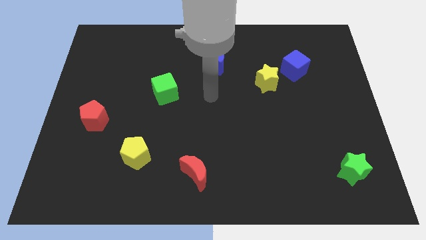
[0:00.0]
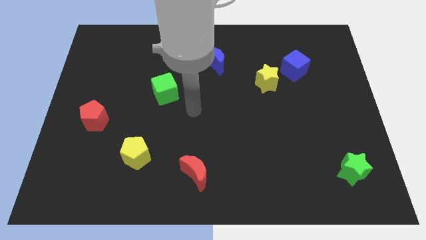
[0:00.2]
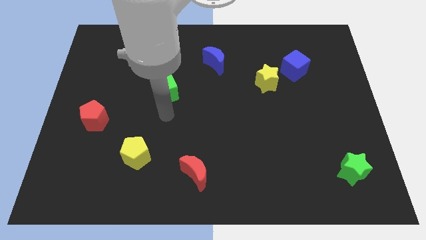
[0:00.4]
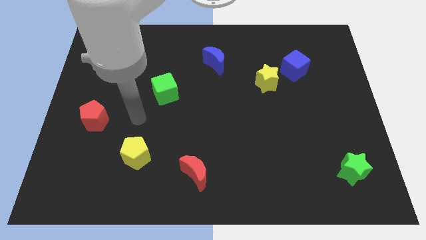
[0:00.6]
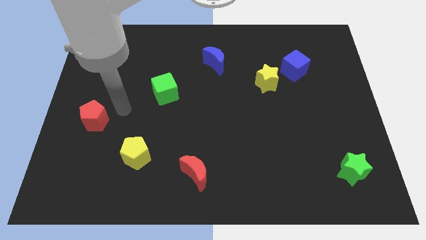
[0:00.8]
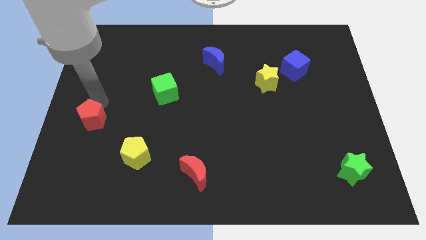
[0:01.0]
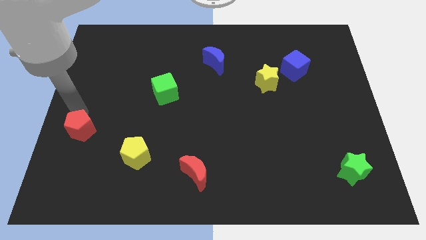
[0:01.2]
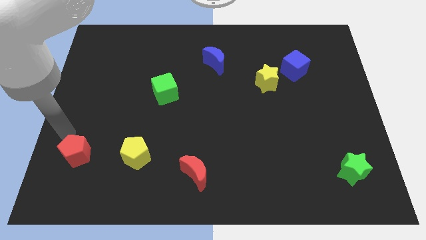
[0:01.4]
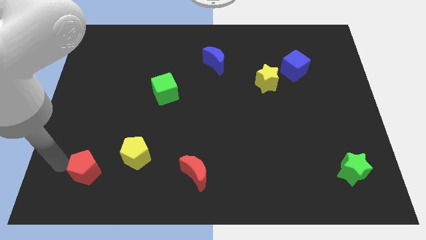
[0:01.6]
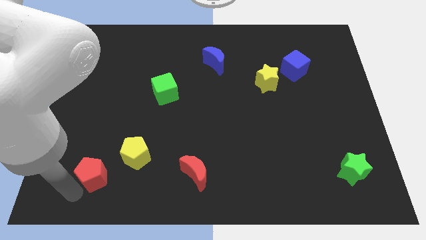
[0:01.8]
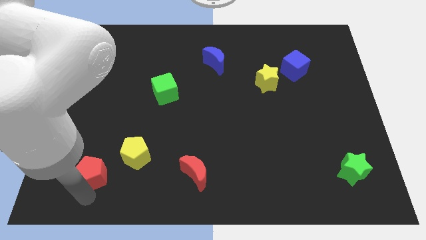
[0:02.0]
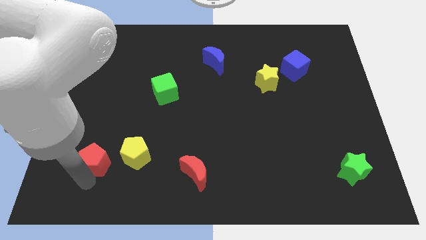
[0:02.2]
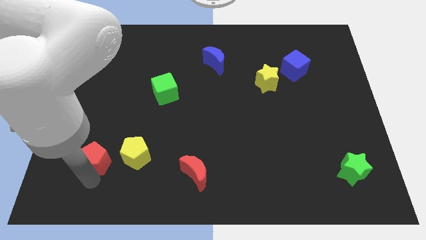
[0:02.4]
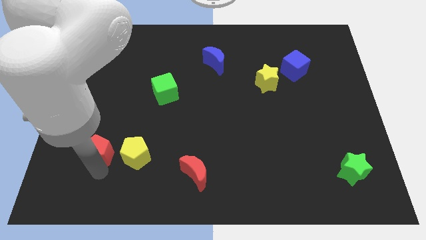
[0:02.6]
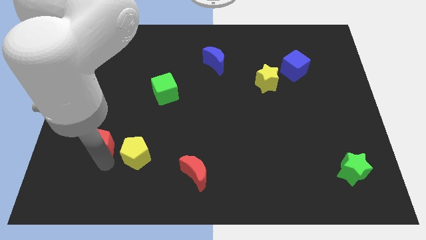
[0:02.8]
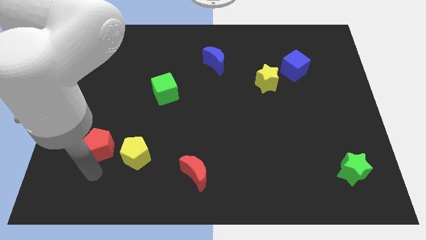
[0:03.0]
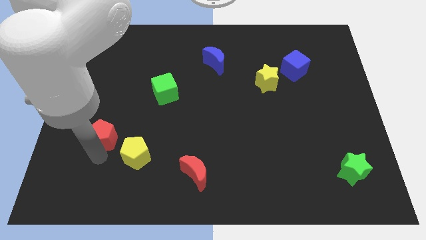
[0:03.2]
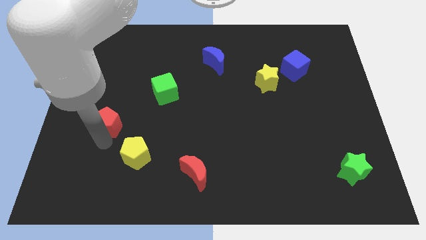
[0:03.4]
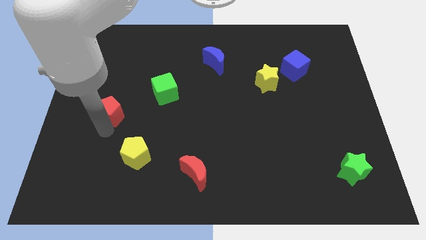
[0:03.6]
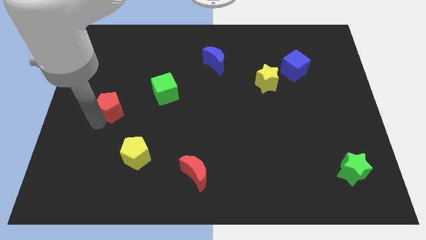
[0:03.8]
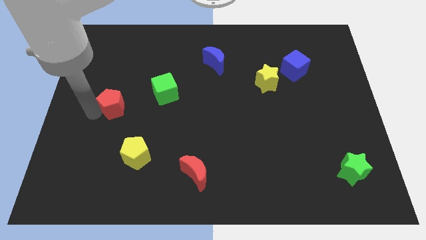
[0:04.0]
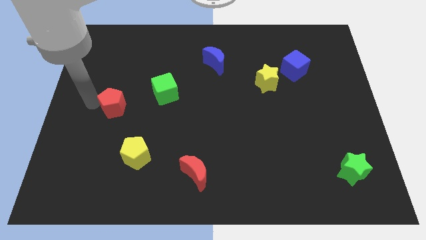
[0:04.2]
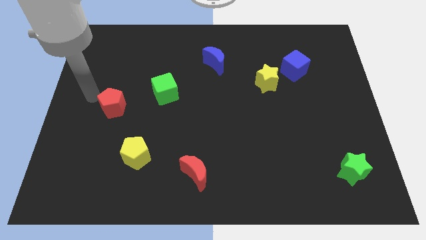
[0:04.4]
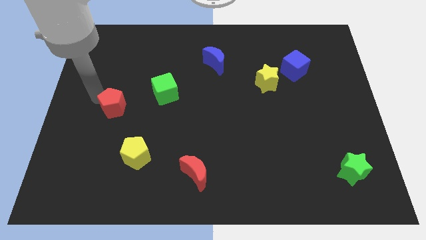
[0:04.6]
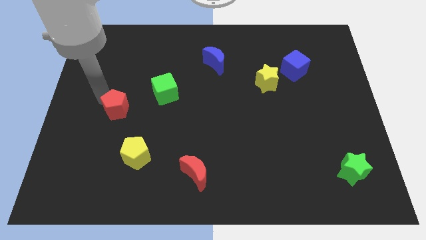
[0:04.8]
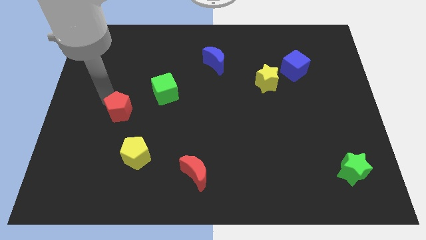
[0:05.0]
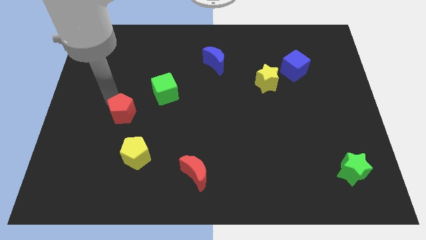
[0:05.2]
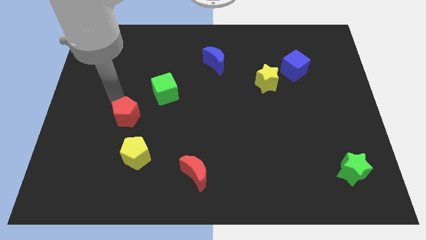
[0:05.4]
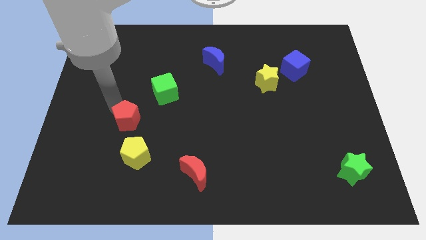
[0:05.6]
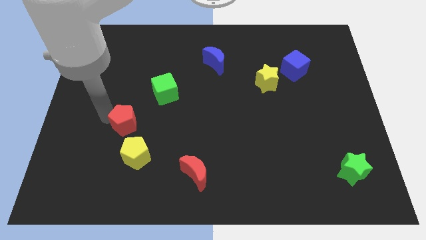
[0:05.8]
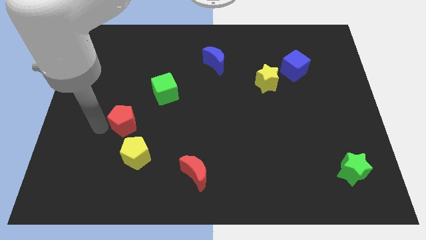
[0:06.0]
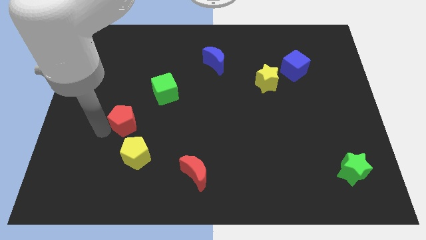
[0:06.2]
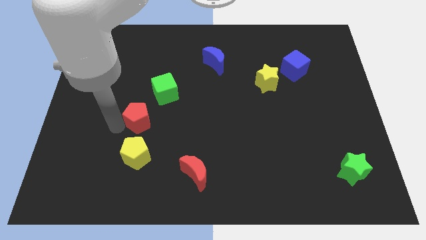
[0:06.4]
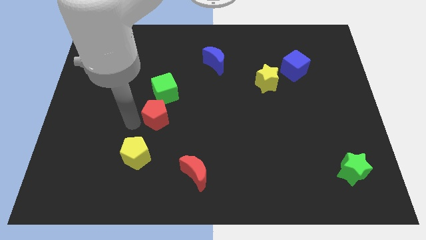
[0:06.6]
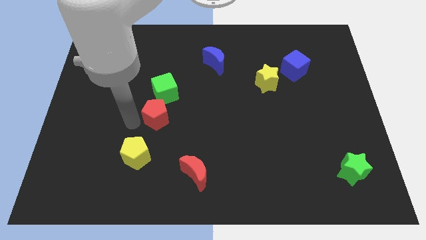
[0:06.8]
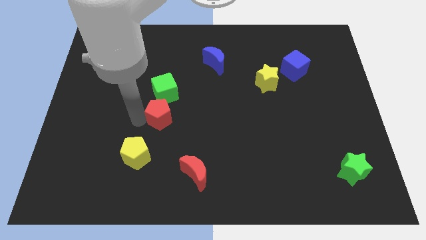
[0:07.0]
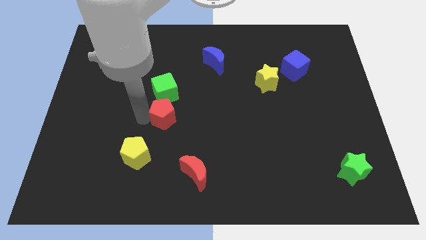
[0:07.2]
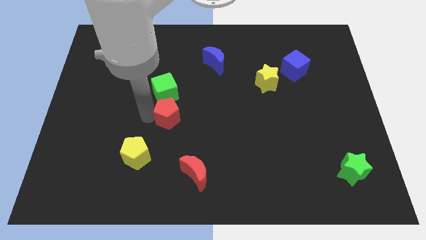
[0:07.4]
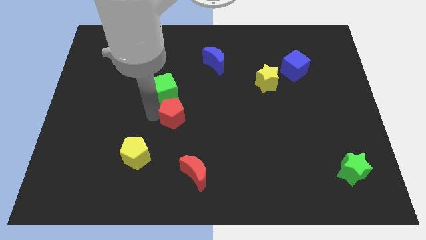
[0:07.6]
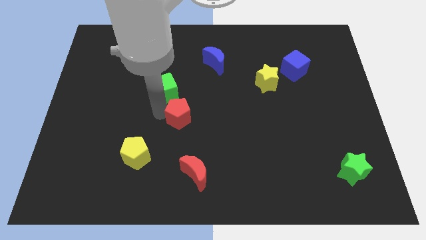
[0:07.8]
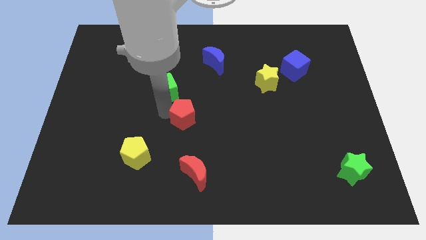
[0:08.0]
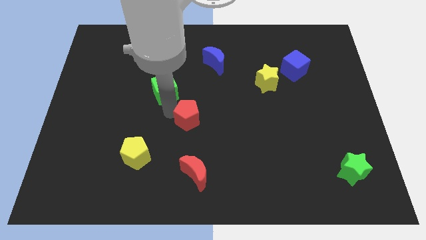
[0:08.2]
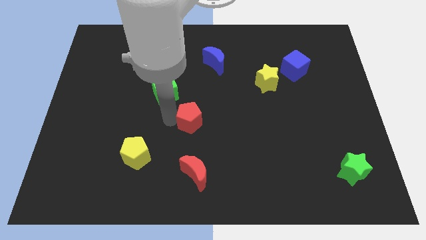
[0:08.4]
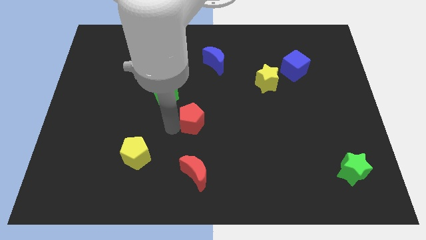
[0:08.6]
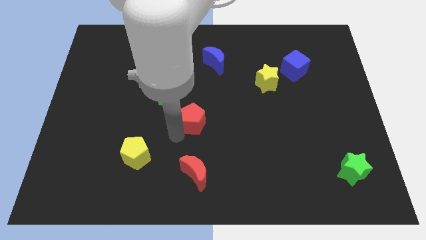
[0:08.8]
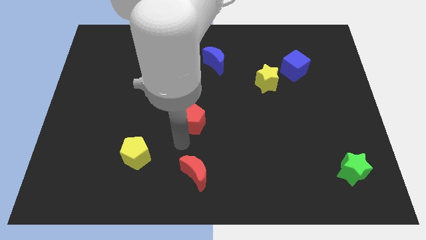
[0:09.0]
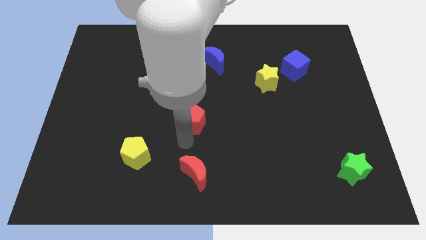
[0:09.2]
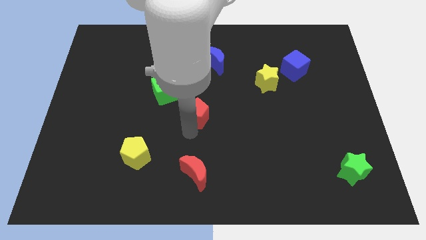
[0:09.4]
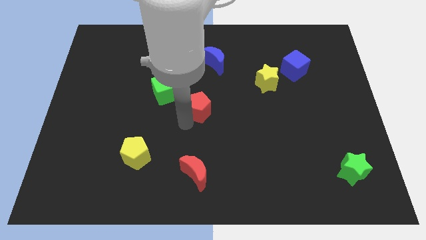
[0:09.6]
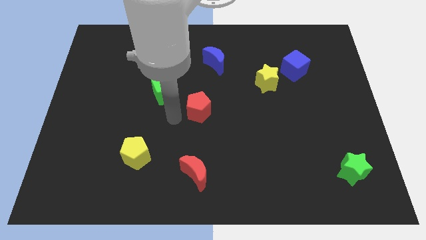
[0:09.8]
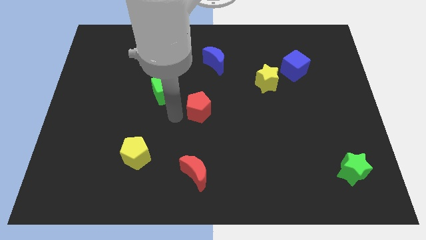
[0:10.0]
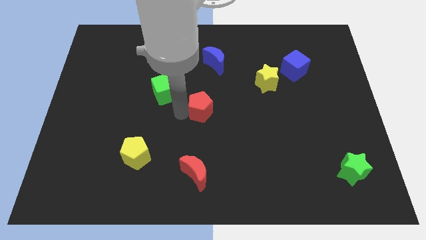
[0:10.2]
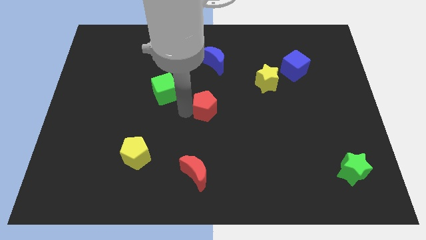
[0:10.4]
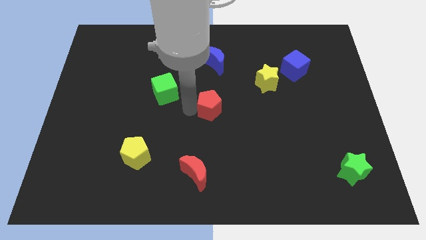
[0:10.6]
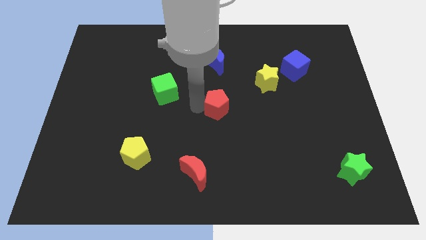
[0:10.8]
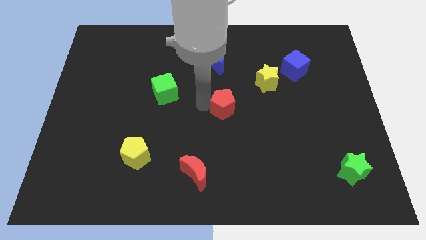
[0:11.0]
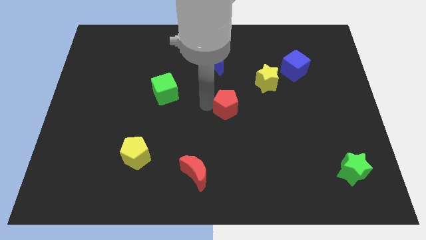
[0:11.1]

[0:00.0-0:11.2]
push the red pentagon diagonally down and to the left of the yellow star

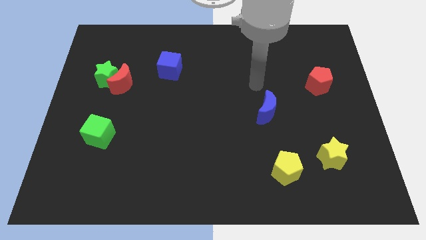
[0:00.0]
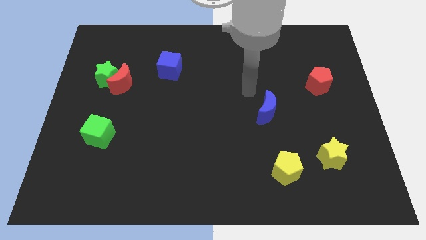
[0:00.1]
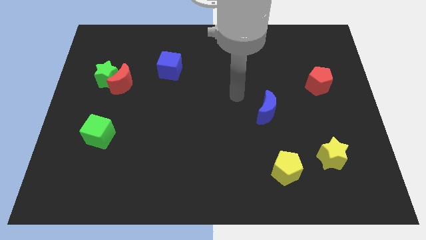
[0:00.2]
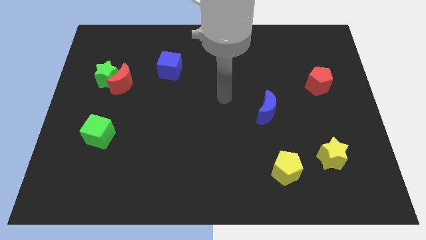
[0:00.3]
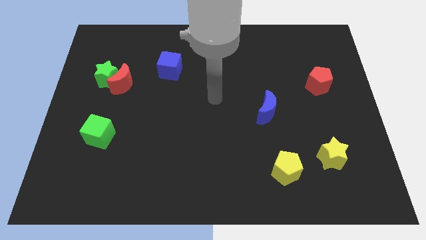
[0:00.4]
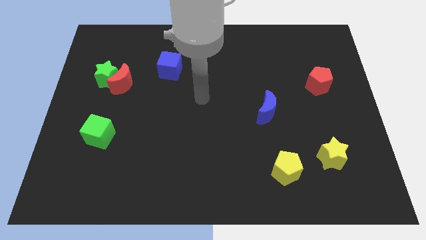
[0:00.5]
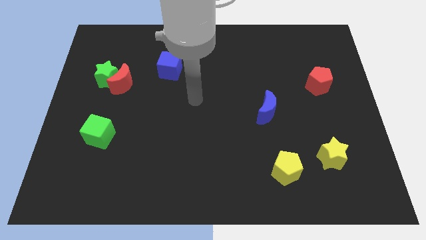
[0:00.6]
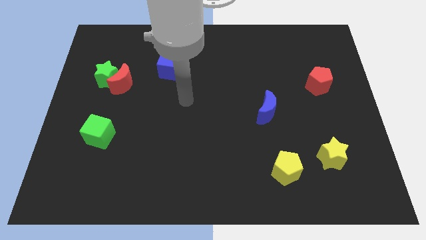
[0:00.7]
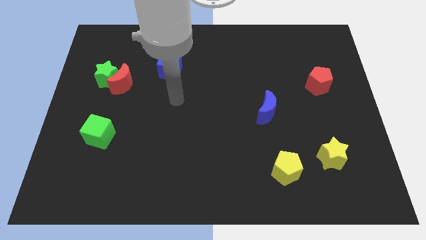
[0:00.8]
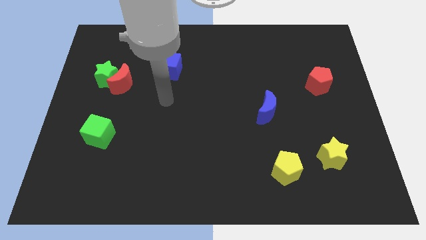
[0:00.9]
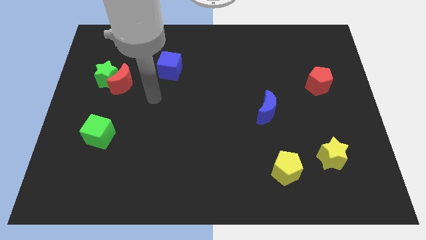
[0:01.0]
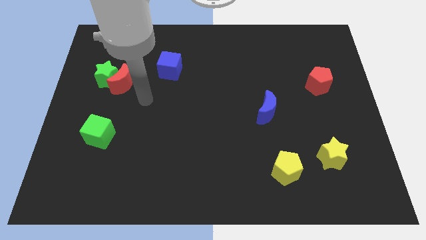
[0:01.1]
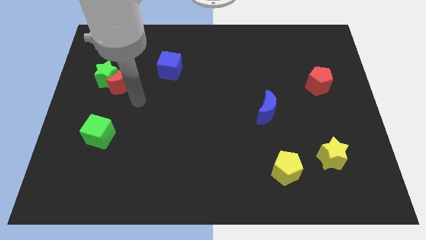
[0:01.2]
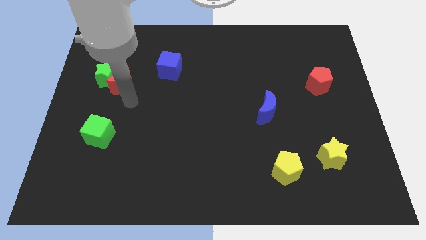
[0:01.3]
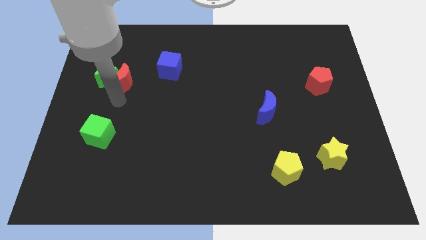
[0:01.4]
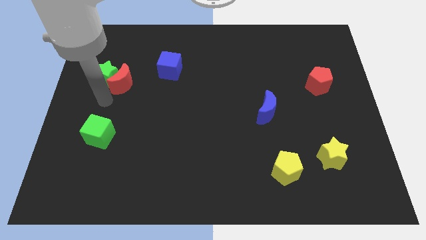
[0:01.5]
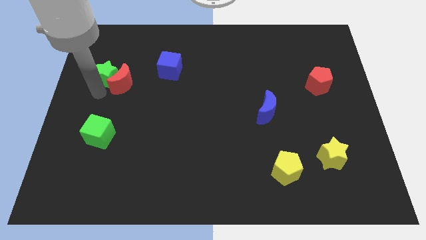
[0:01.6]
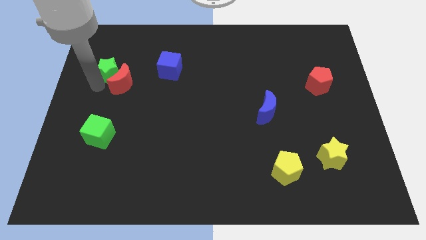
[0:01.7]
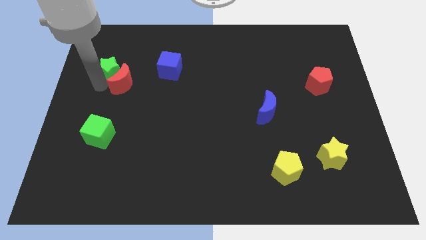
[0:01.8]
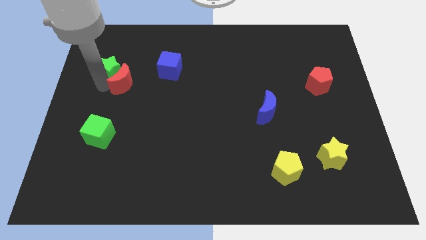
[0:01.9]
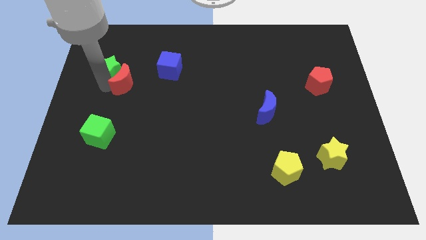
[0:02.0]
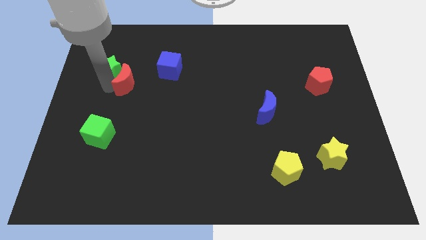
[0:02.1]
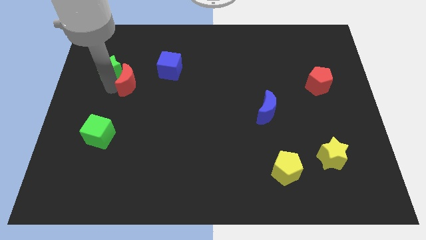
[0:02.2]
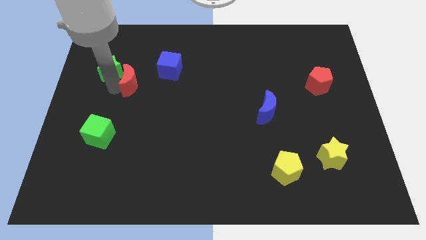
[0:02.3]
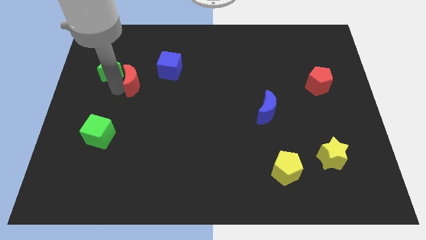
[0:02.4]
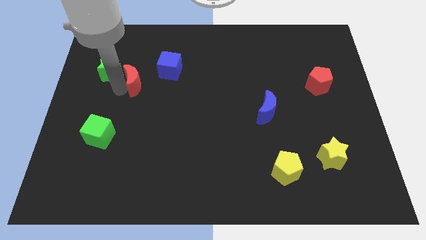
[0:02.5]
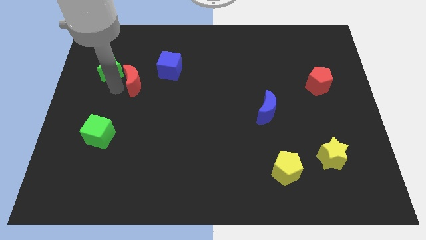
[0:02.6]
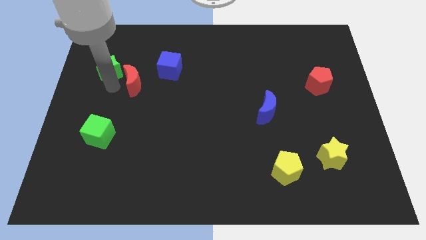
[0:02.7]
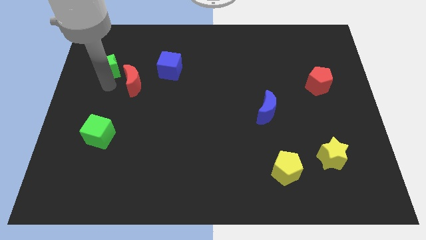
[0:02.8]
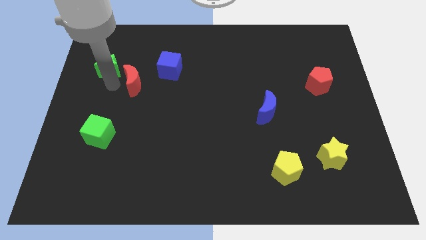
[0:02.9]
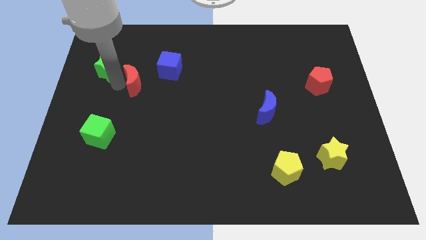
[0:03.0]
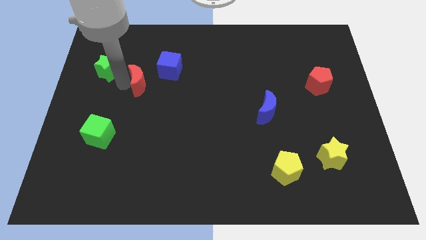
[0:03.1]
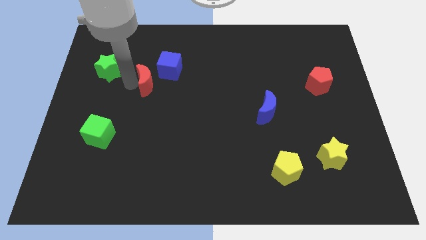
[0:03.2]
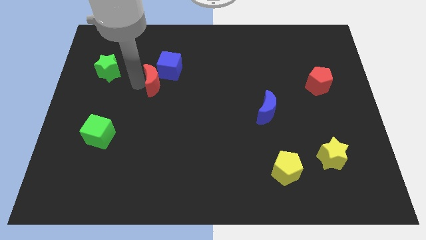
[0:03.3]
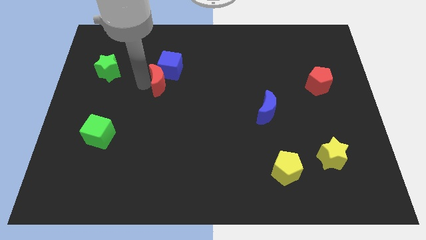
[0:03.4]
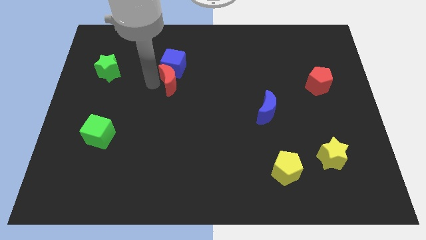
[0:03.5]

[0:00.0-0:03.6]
move the red moon diagonally down and to the right of the blue cube
